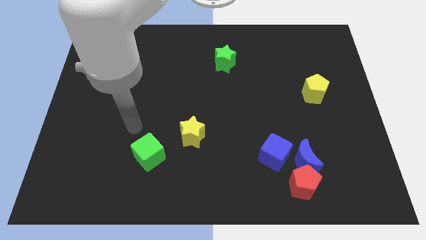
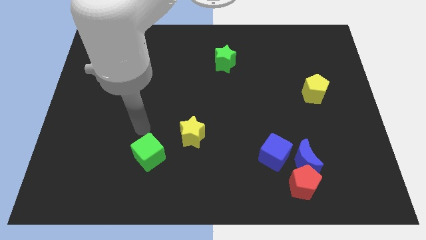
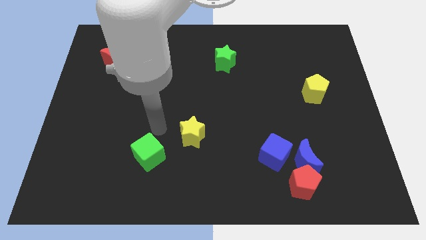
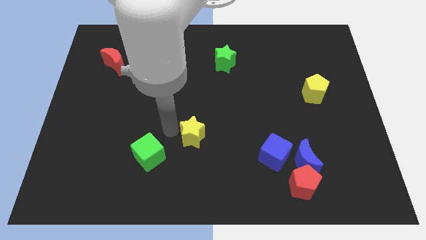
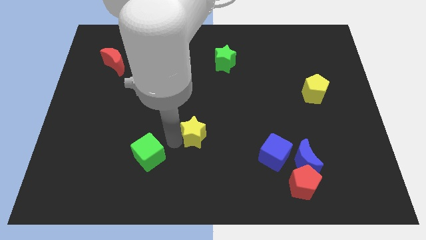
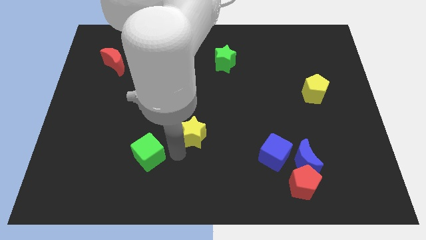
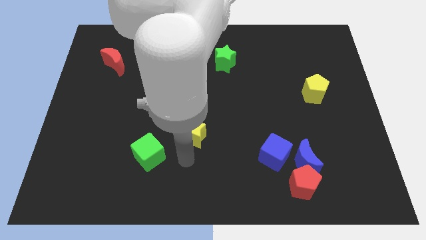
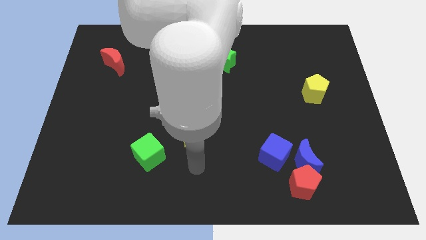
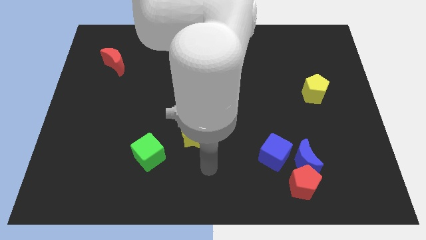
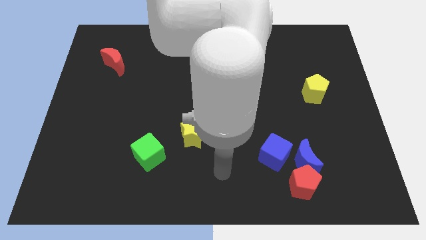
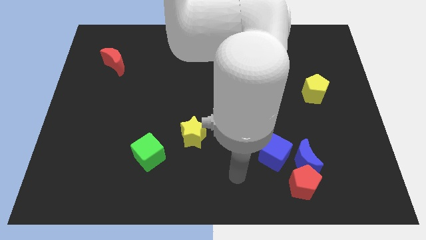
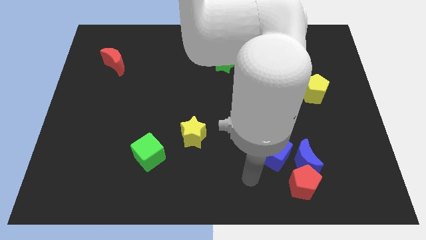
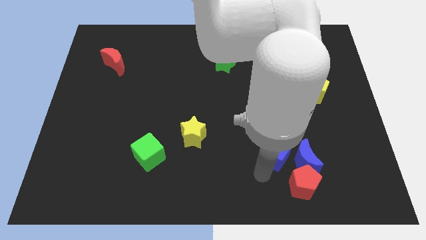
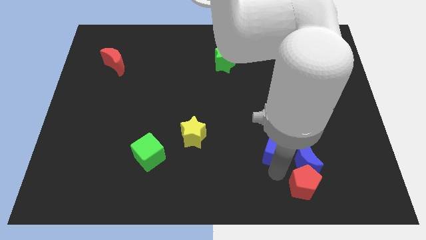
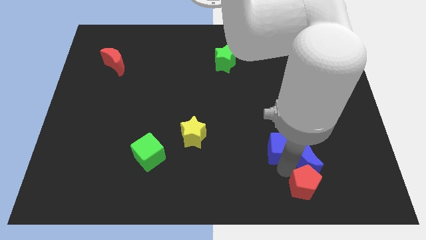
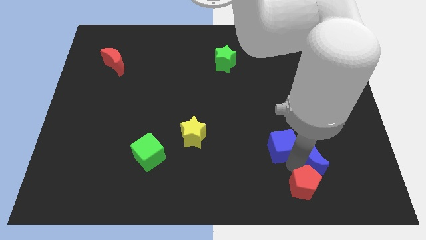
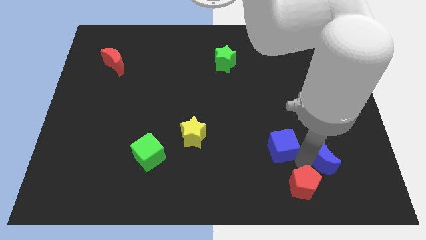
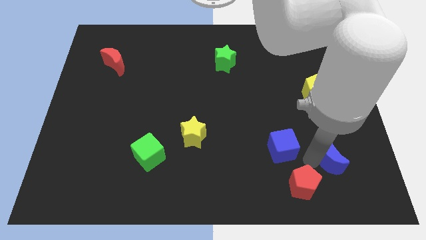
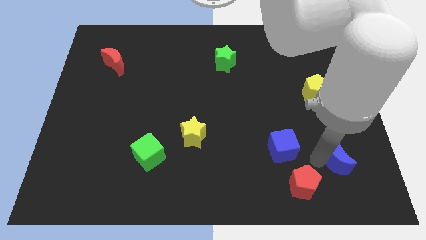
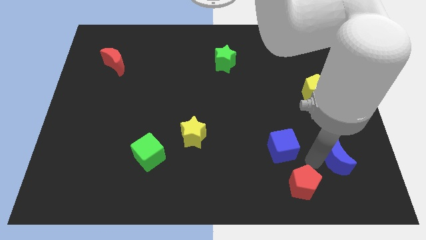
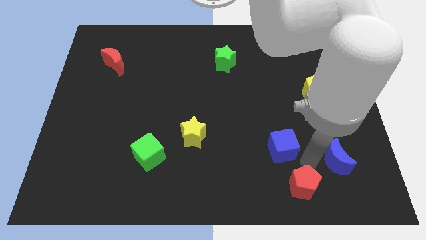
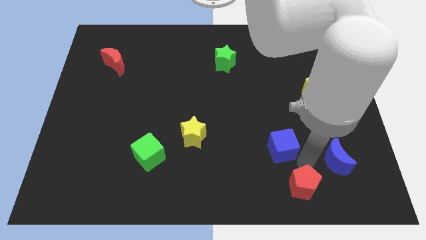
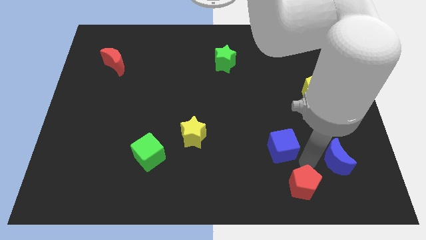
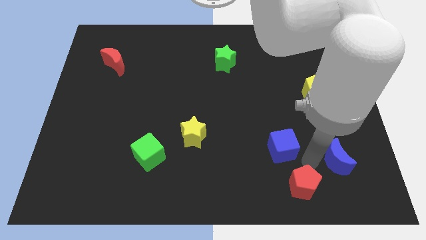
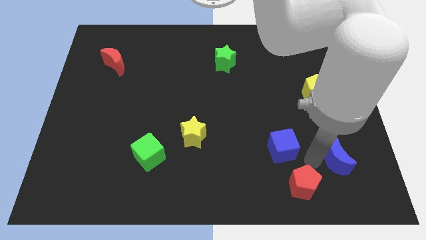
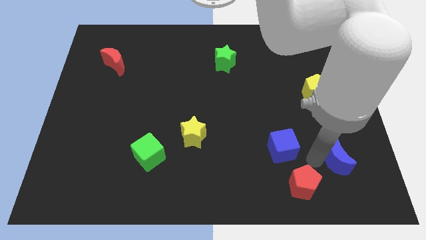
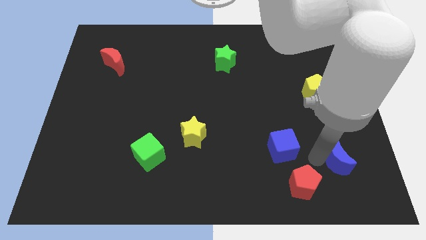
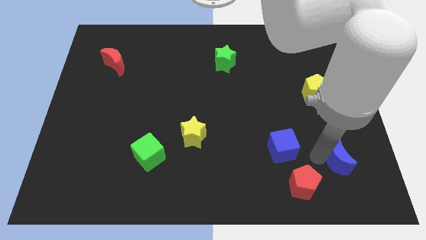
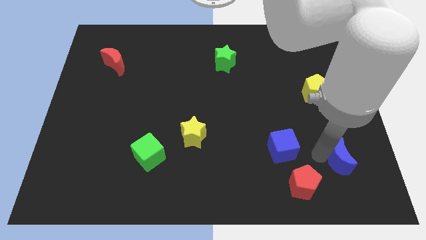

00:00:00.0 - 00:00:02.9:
pull the blue moon apart from the red pentagon and blue cube

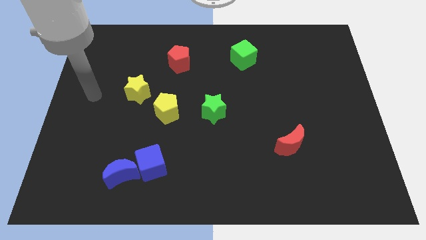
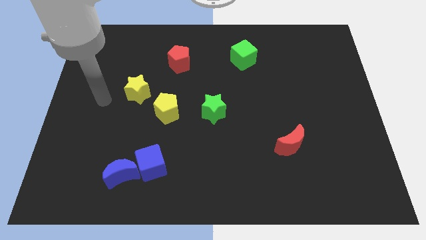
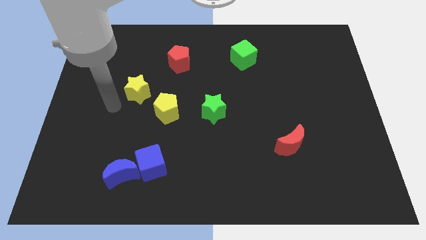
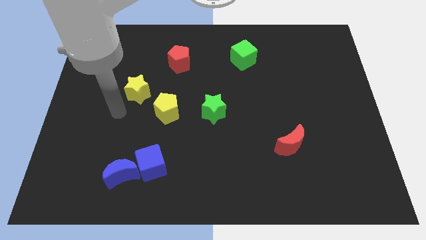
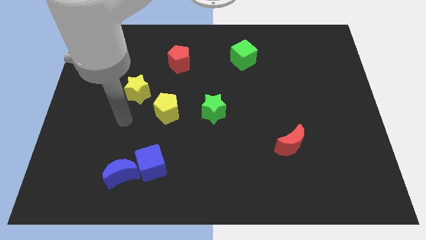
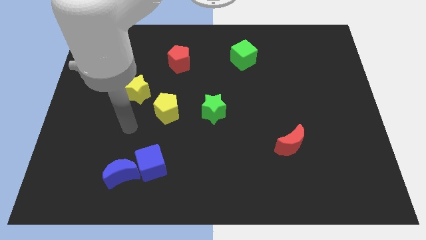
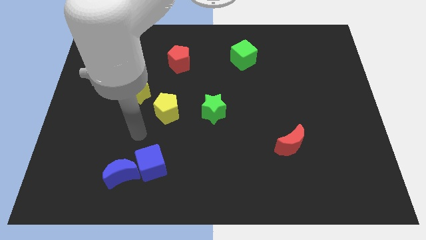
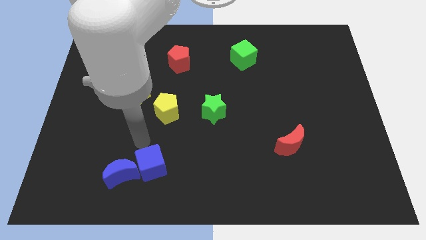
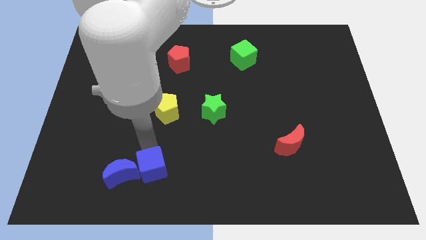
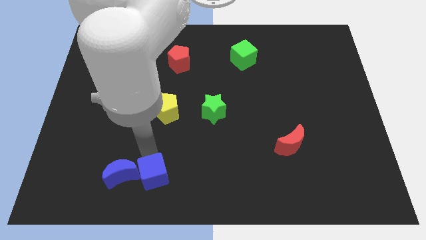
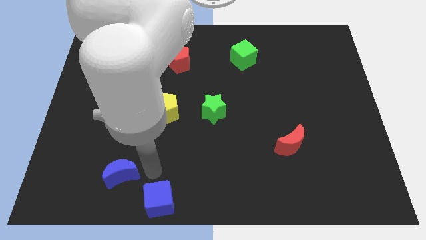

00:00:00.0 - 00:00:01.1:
separate the blue moon from the blue cube

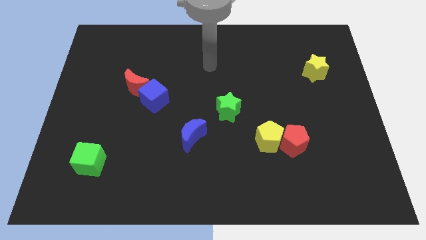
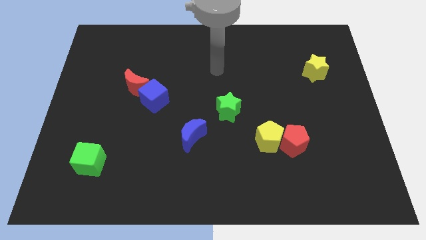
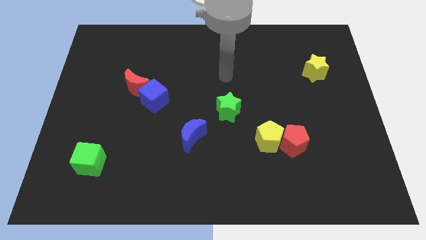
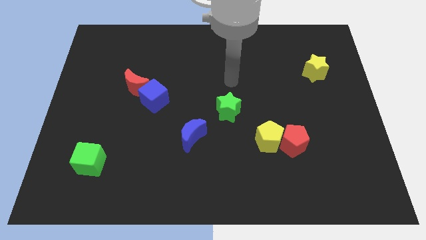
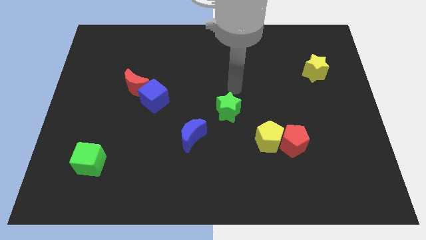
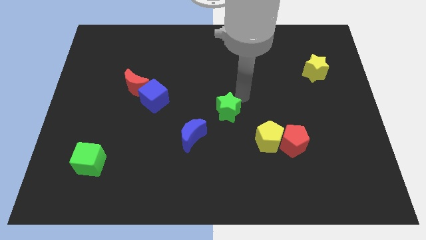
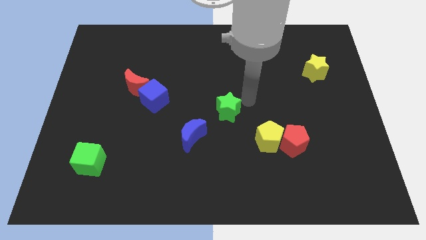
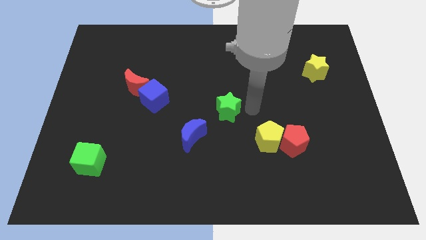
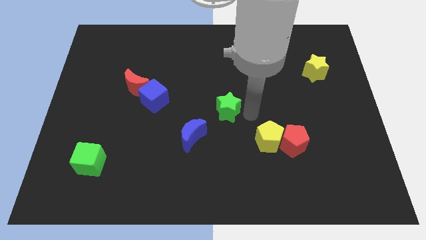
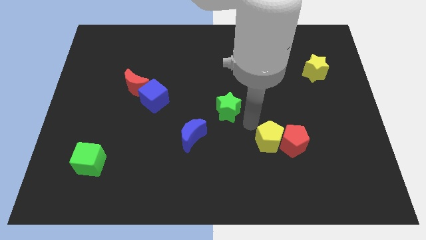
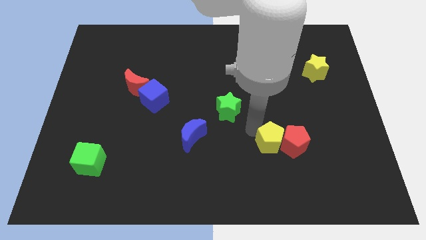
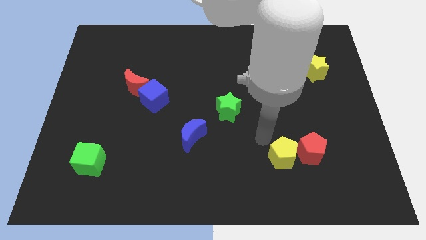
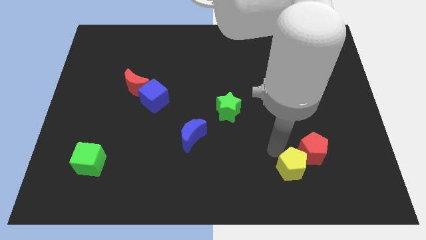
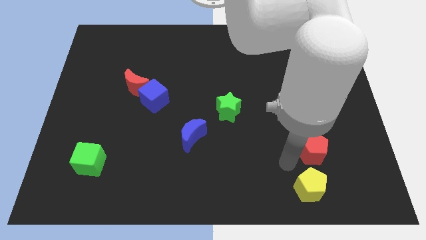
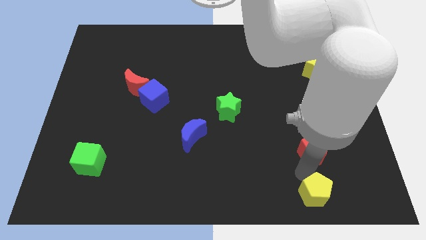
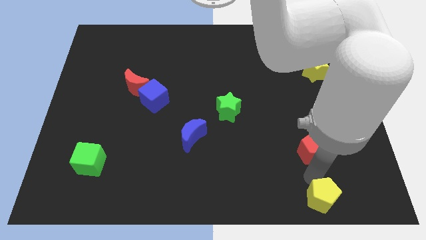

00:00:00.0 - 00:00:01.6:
separate the red pentagon from the yellow pentagon

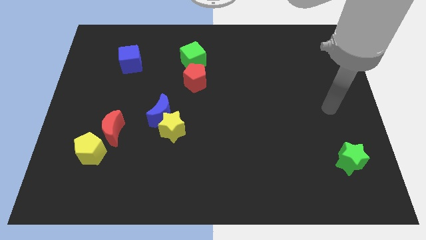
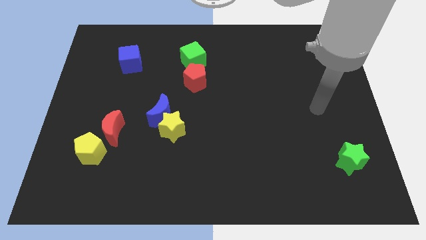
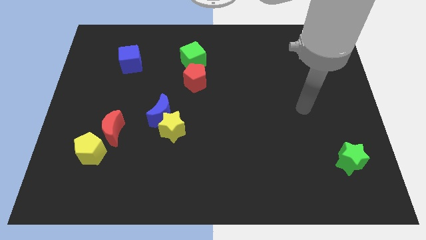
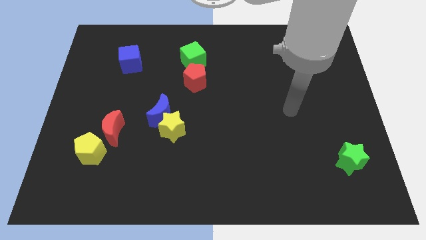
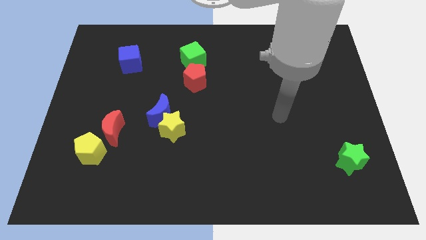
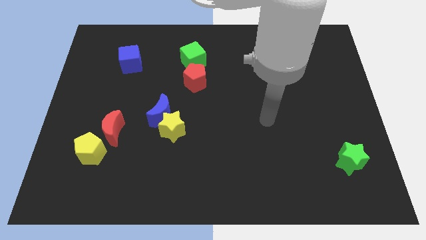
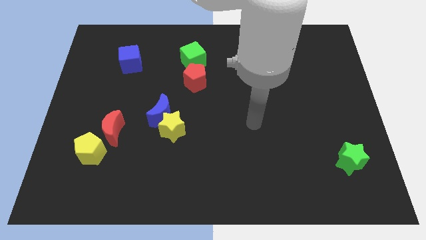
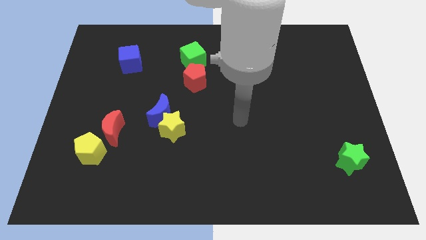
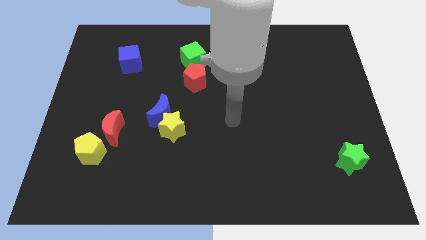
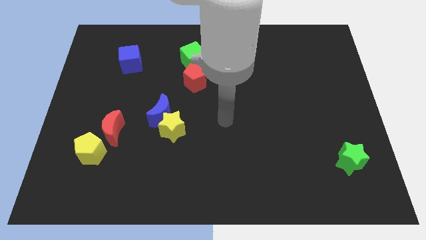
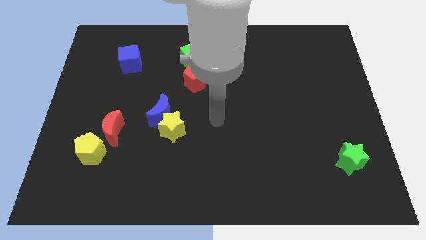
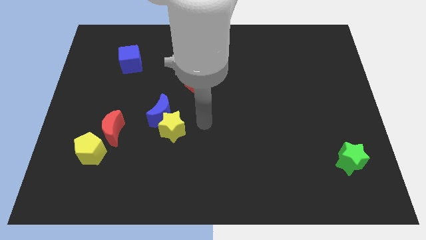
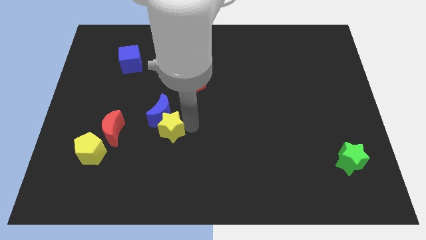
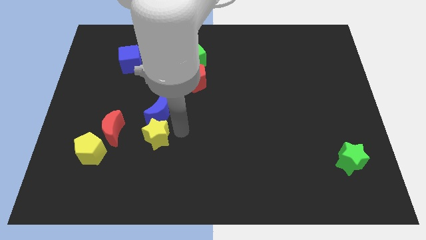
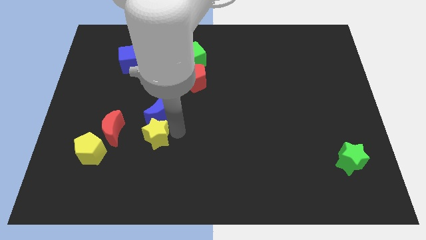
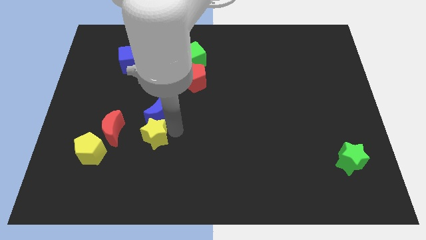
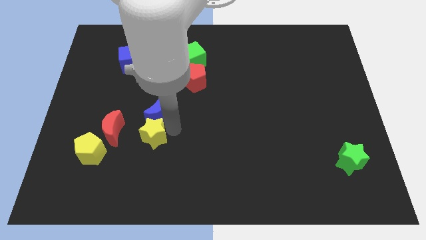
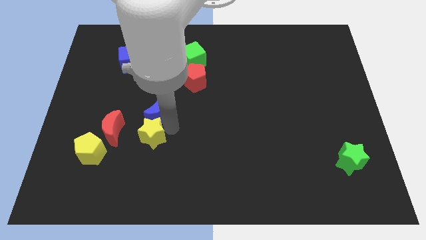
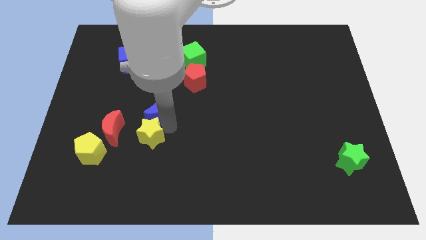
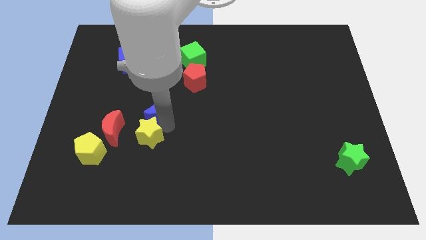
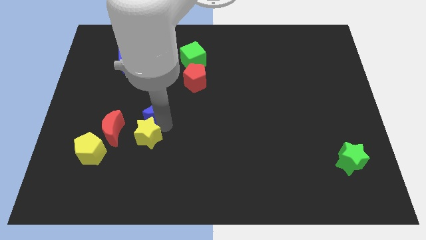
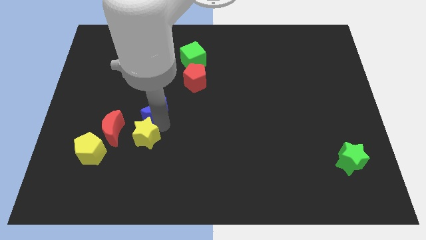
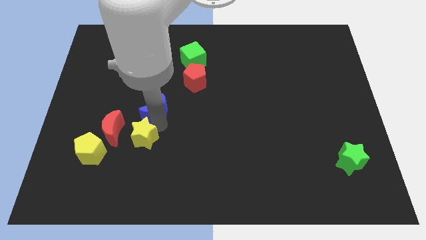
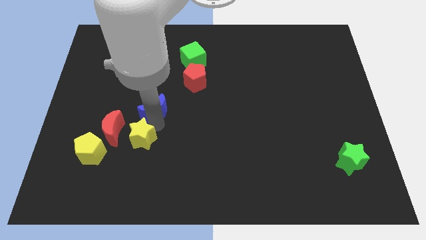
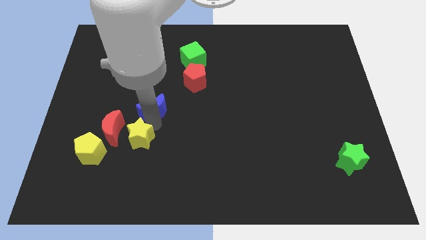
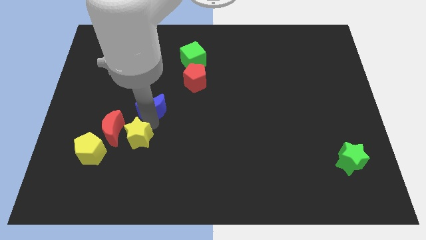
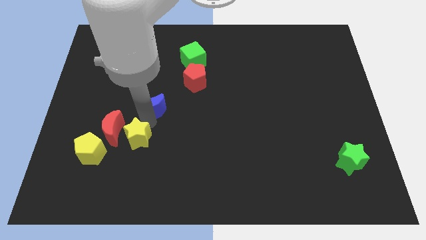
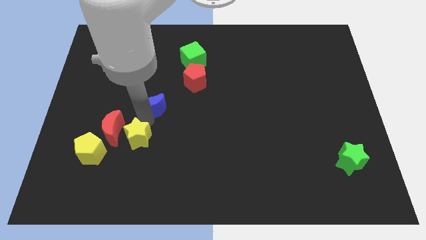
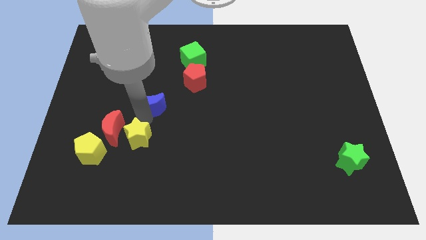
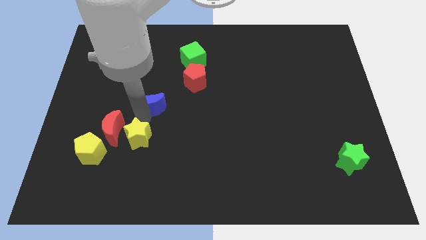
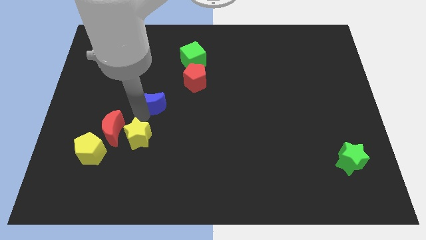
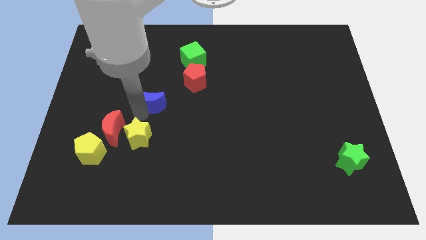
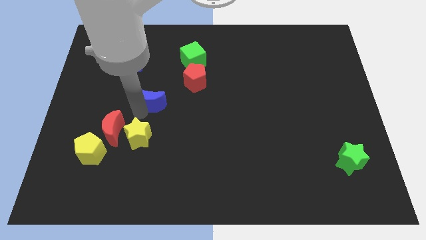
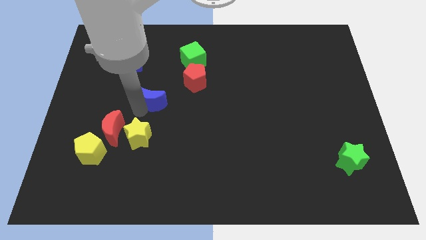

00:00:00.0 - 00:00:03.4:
move the blue moon away from the yellow star

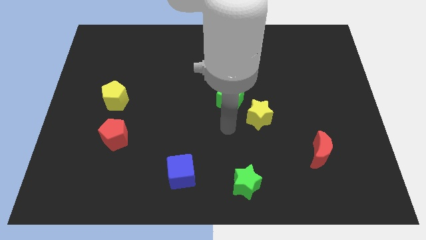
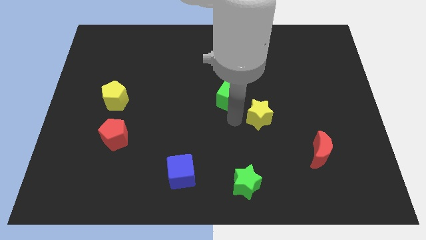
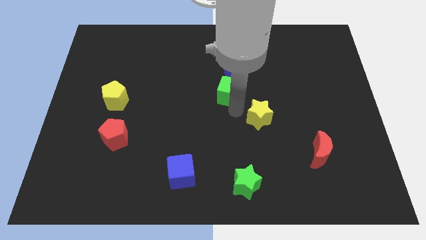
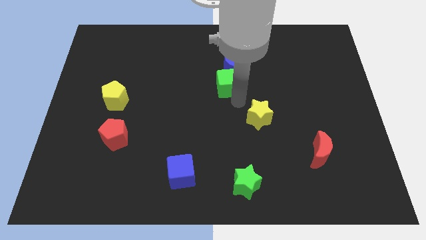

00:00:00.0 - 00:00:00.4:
pull the yellow star apart from the green cube
